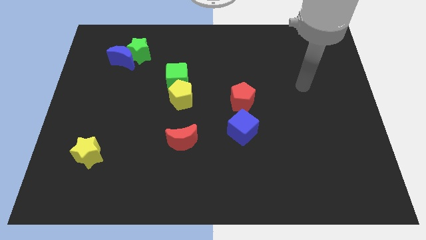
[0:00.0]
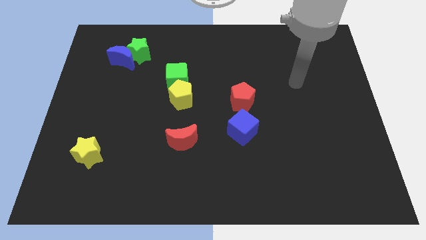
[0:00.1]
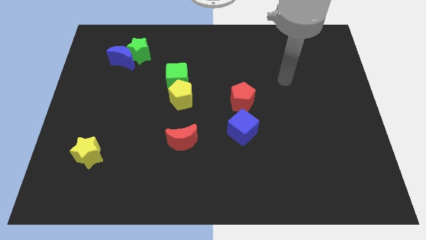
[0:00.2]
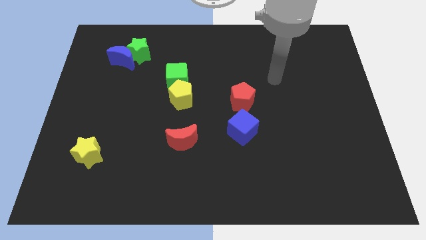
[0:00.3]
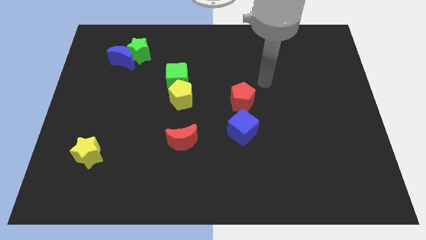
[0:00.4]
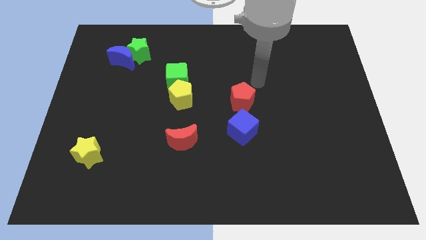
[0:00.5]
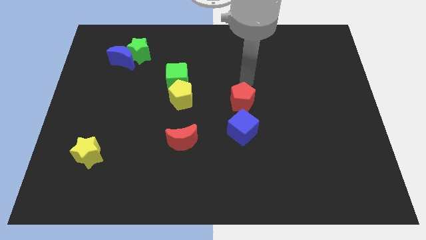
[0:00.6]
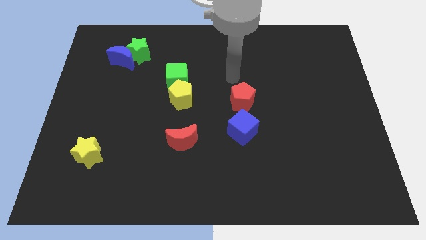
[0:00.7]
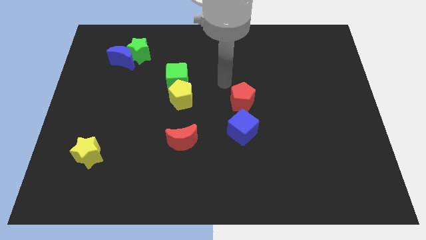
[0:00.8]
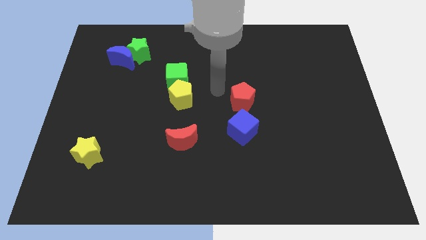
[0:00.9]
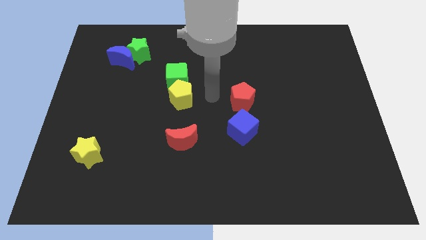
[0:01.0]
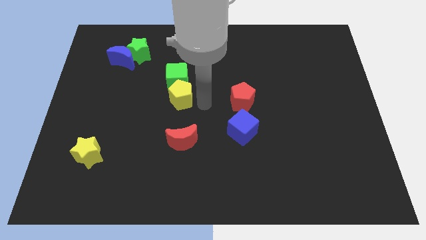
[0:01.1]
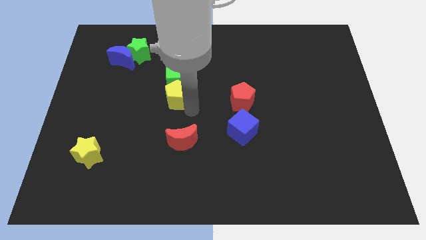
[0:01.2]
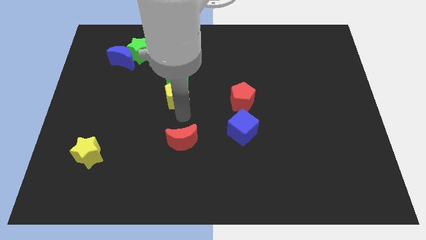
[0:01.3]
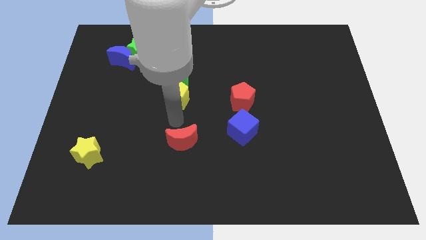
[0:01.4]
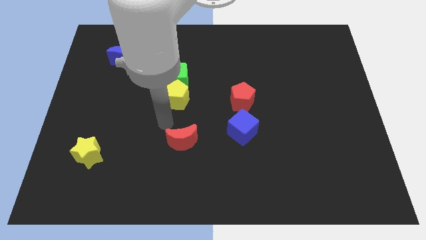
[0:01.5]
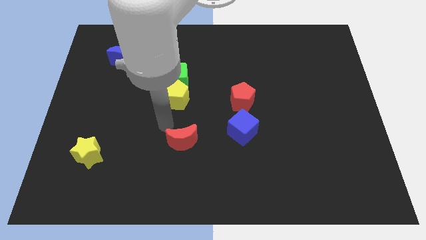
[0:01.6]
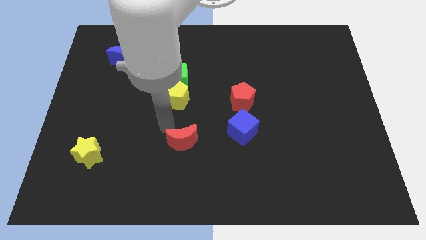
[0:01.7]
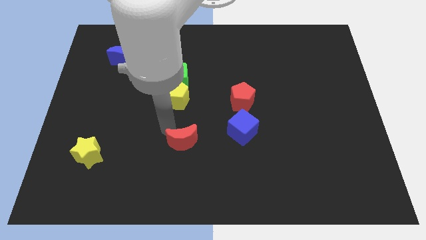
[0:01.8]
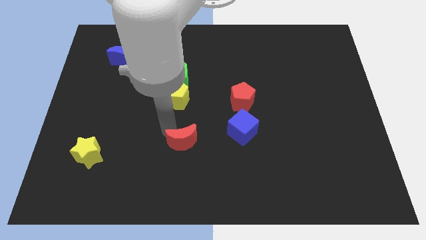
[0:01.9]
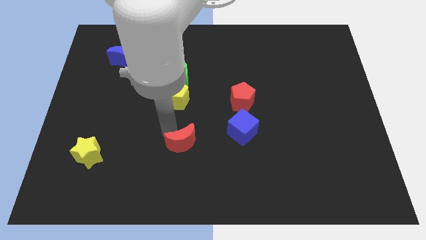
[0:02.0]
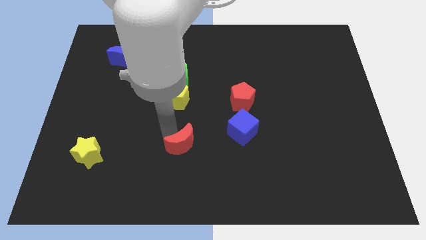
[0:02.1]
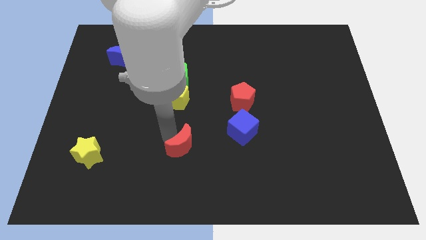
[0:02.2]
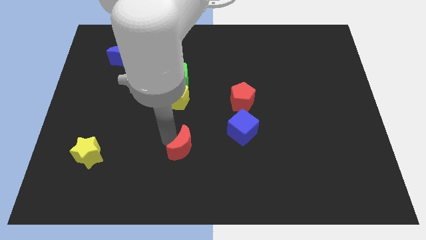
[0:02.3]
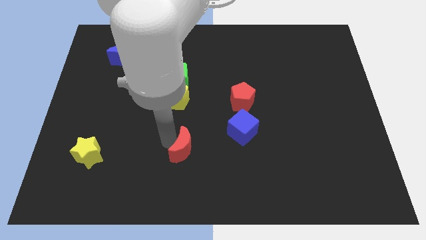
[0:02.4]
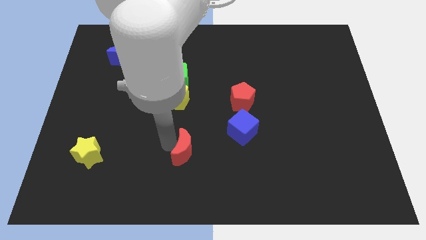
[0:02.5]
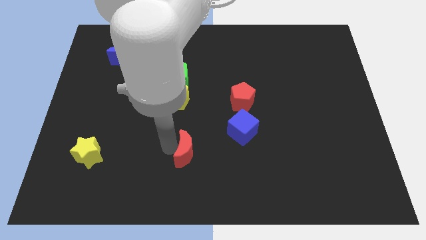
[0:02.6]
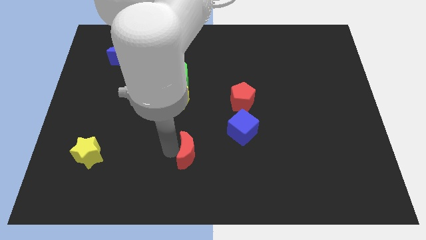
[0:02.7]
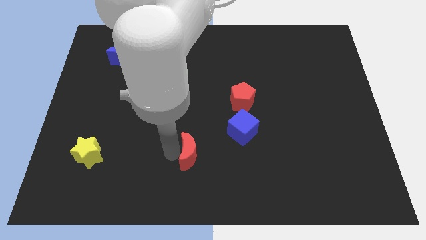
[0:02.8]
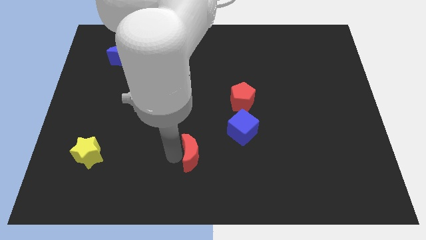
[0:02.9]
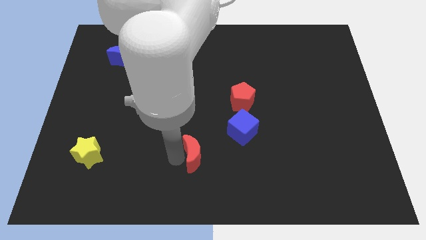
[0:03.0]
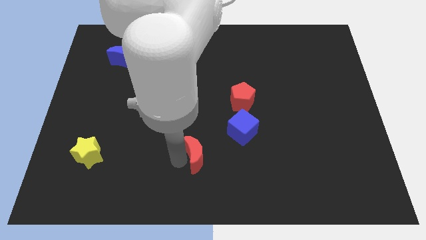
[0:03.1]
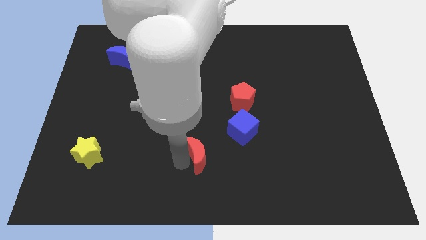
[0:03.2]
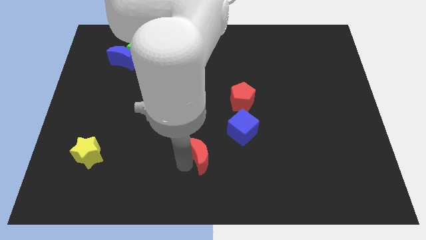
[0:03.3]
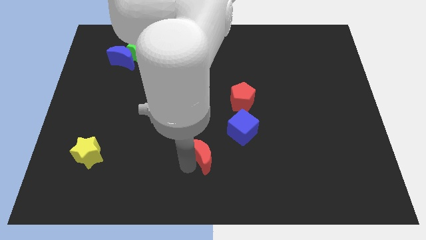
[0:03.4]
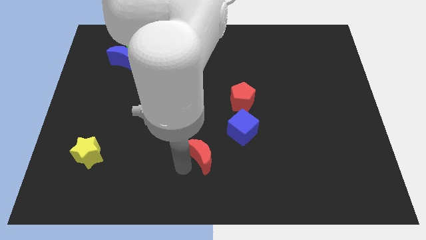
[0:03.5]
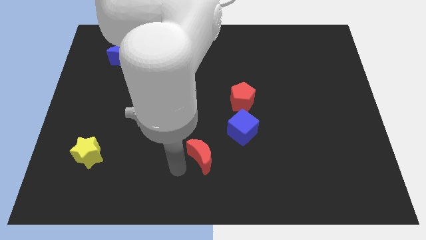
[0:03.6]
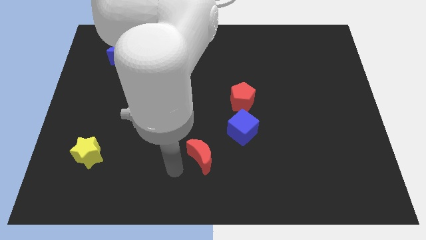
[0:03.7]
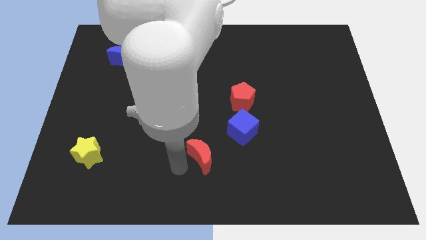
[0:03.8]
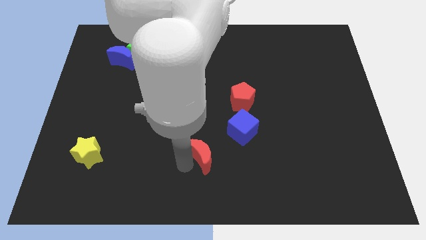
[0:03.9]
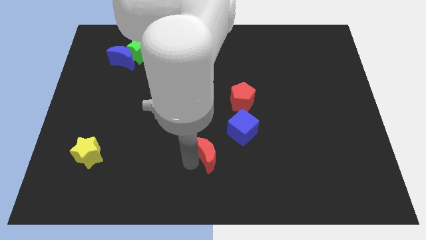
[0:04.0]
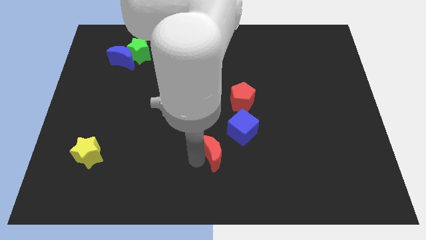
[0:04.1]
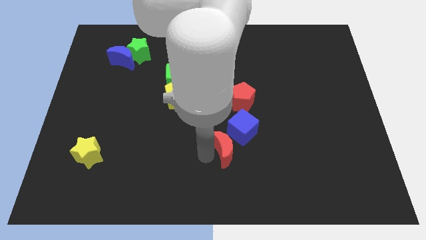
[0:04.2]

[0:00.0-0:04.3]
push the red moon a little bit to the right

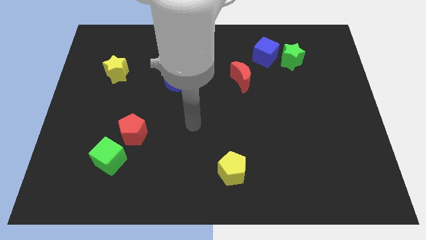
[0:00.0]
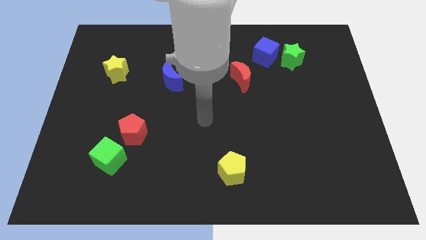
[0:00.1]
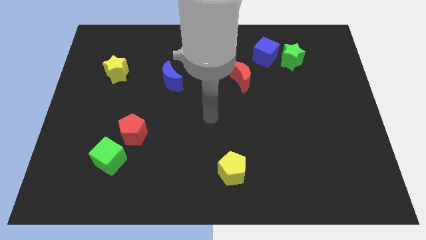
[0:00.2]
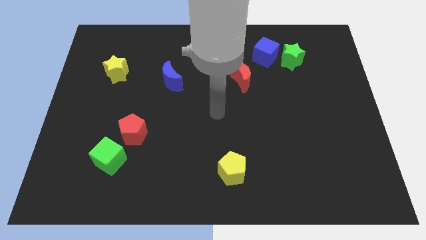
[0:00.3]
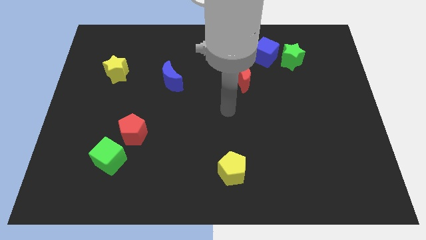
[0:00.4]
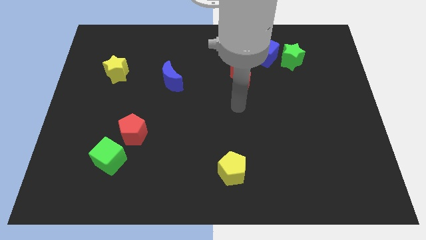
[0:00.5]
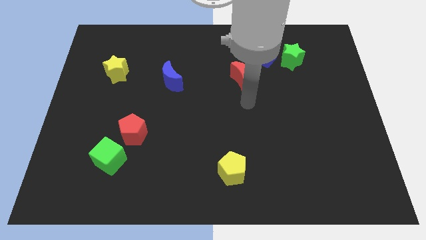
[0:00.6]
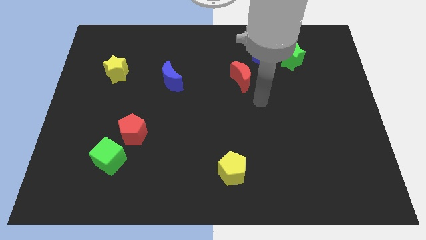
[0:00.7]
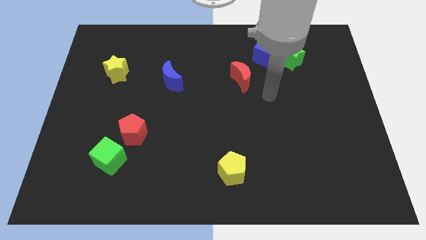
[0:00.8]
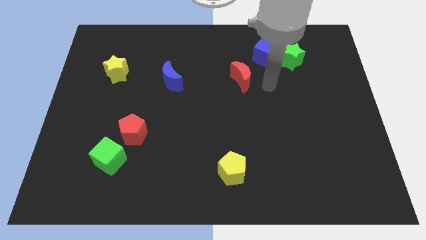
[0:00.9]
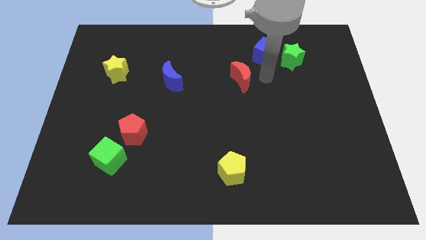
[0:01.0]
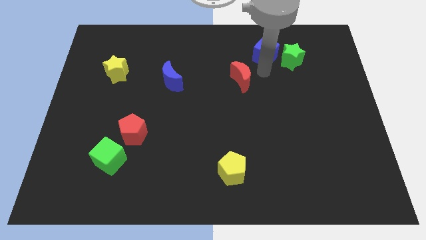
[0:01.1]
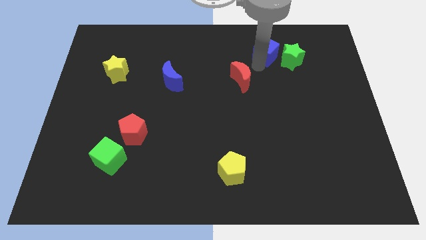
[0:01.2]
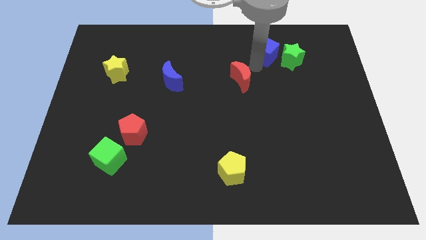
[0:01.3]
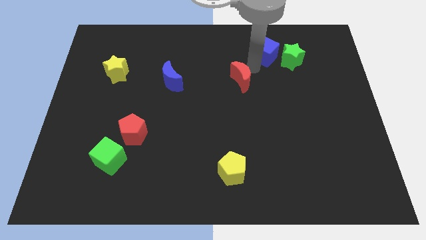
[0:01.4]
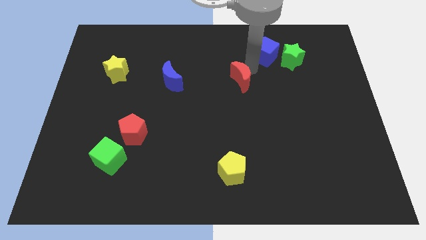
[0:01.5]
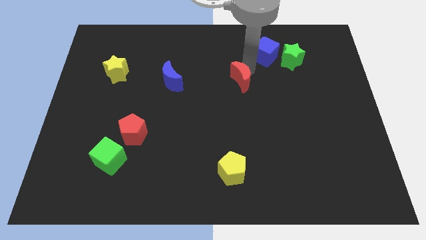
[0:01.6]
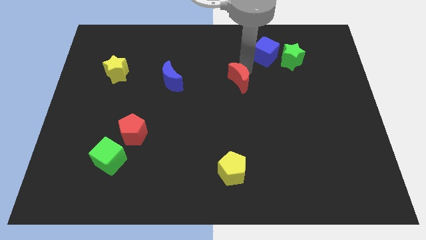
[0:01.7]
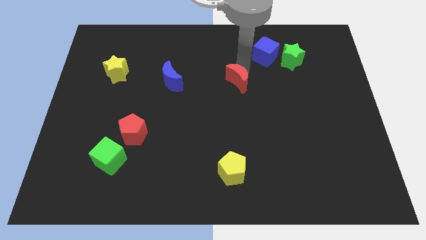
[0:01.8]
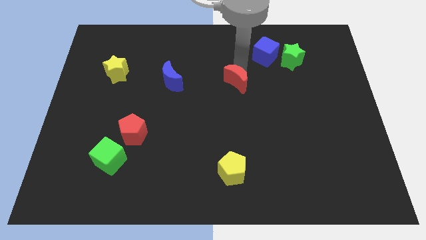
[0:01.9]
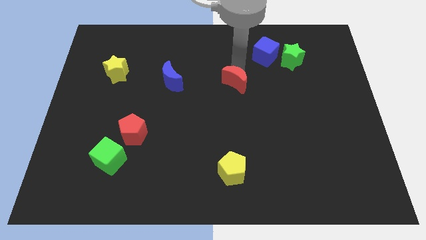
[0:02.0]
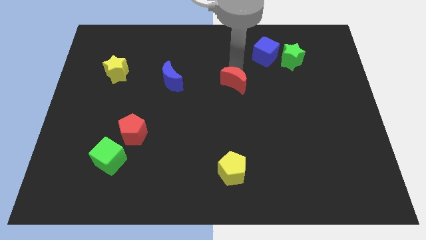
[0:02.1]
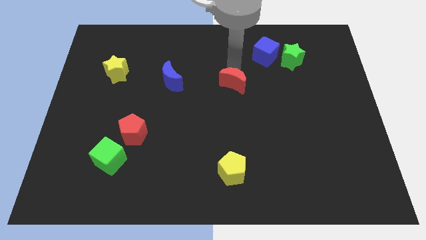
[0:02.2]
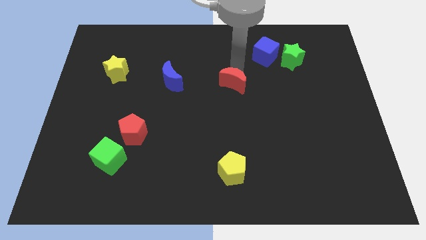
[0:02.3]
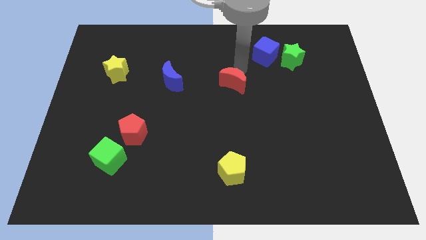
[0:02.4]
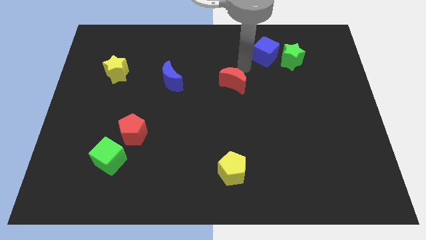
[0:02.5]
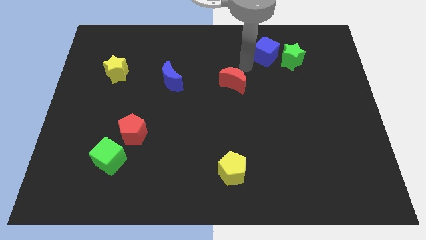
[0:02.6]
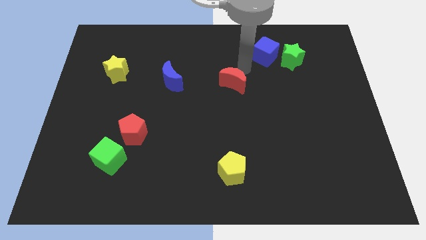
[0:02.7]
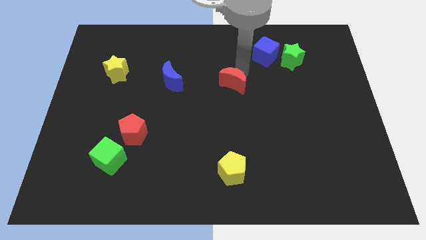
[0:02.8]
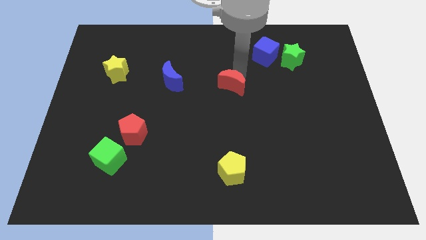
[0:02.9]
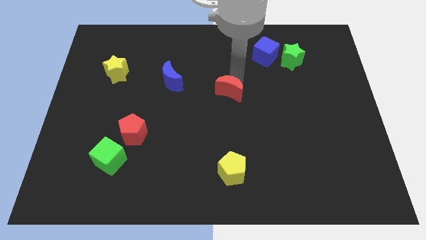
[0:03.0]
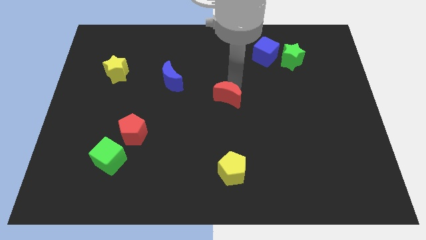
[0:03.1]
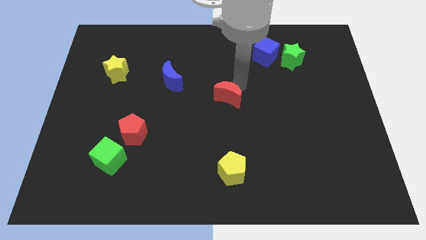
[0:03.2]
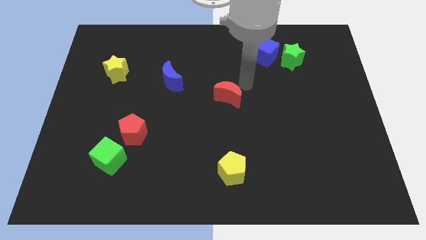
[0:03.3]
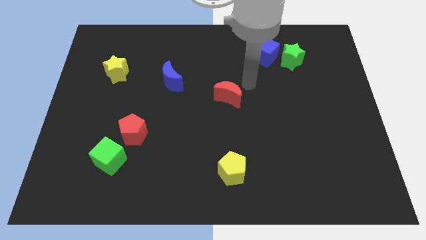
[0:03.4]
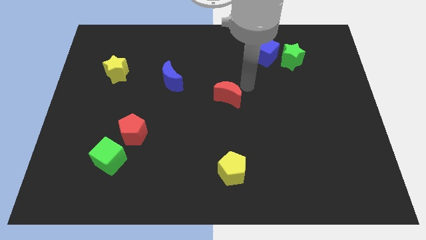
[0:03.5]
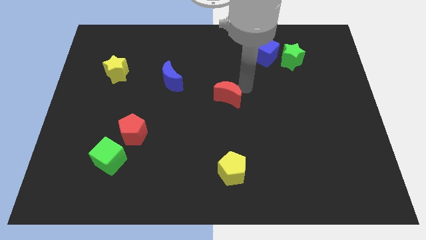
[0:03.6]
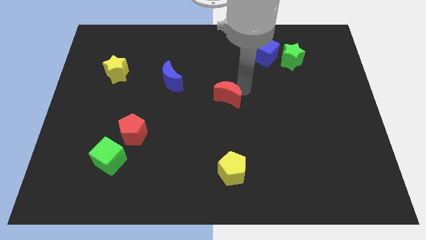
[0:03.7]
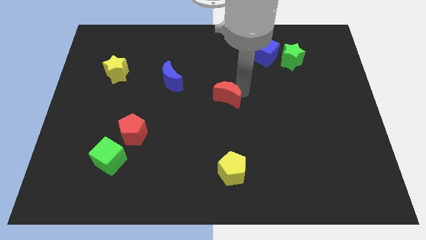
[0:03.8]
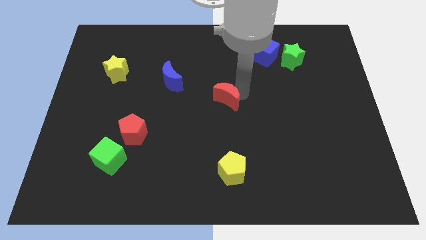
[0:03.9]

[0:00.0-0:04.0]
slide the red moon diagonally downwards and left a bit

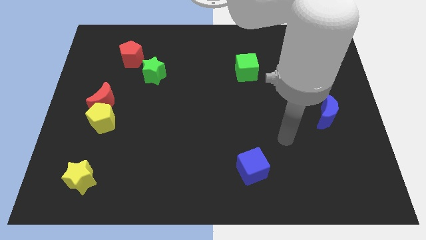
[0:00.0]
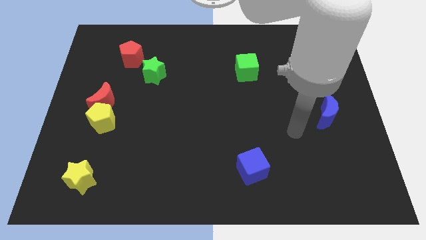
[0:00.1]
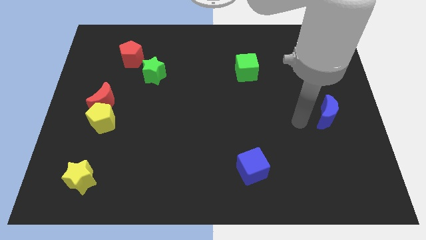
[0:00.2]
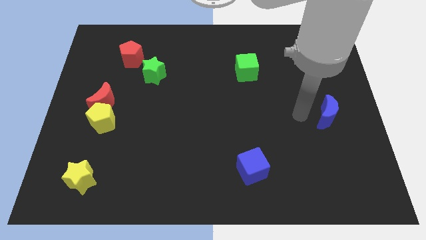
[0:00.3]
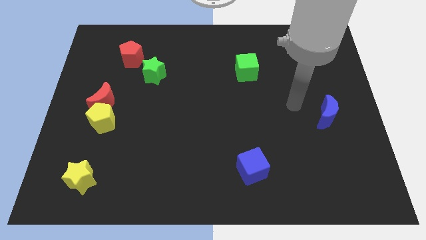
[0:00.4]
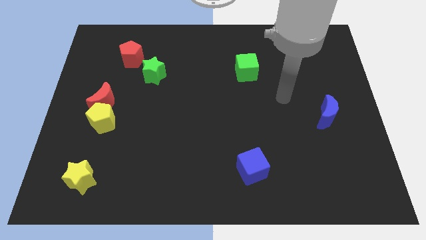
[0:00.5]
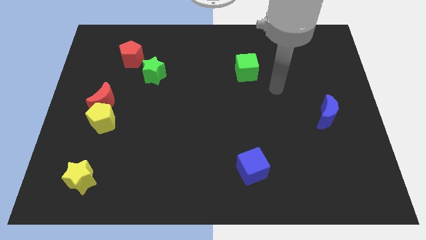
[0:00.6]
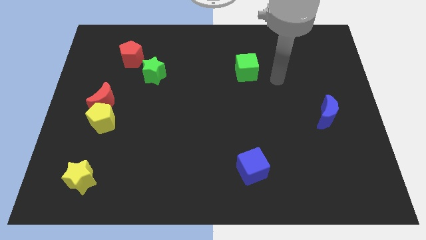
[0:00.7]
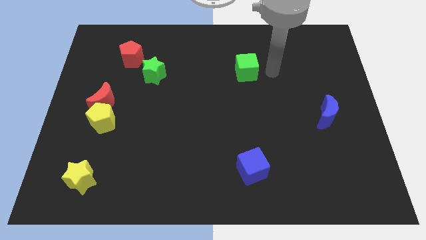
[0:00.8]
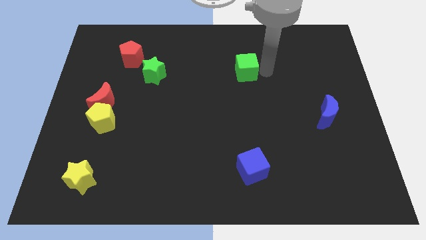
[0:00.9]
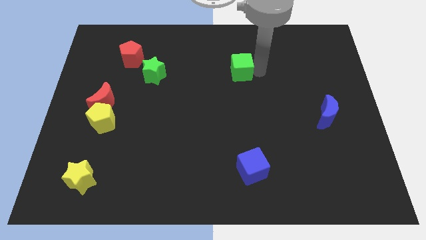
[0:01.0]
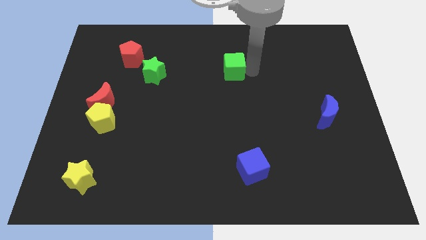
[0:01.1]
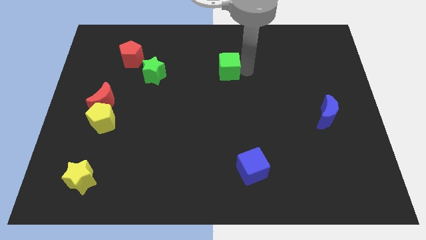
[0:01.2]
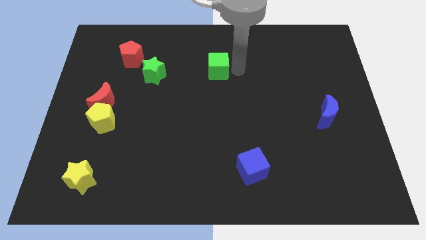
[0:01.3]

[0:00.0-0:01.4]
move the green cube a little left
